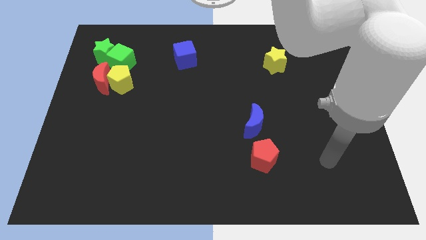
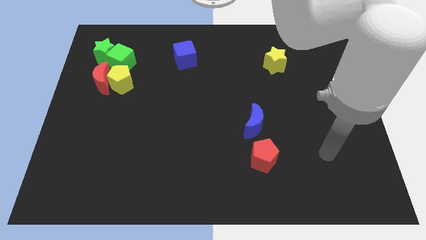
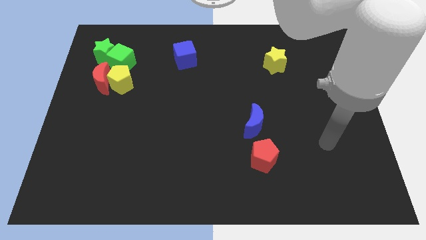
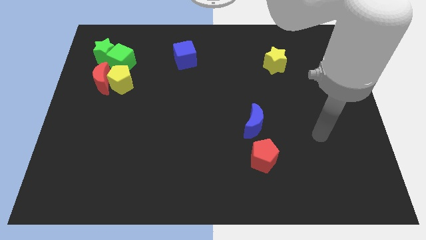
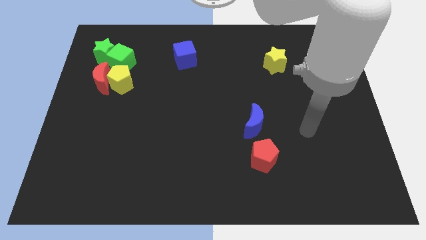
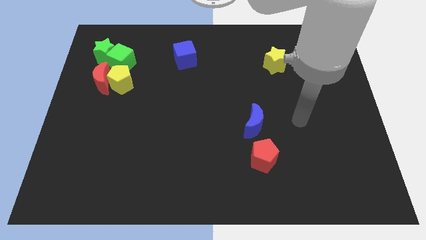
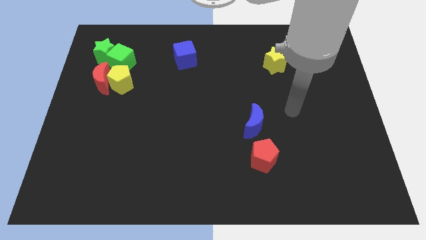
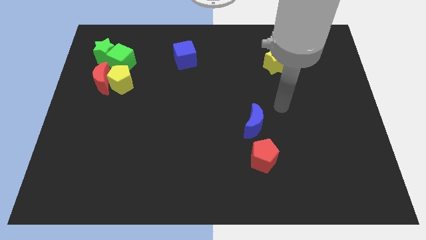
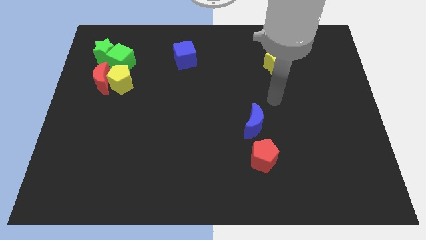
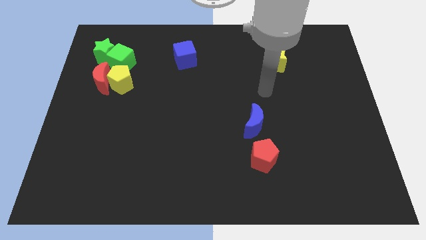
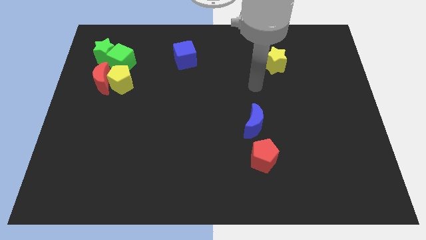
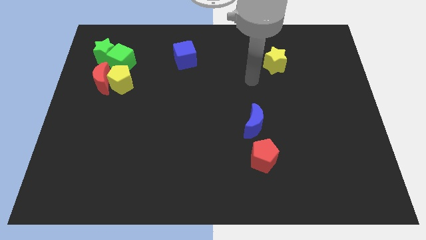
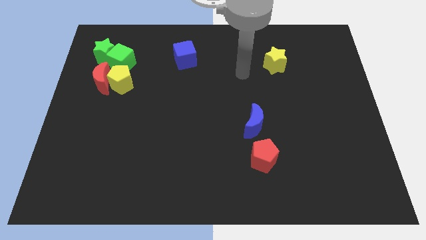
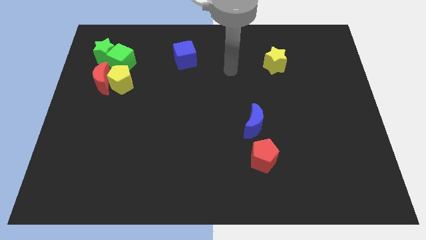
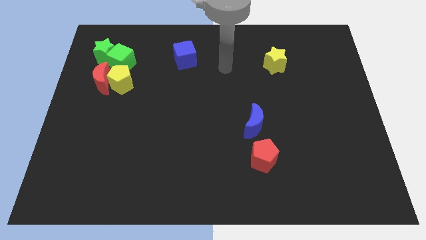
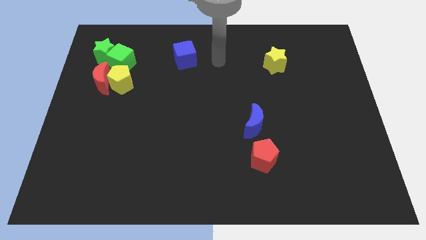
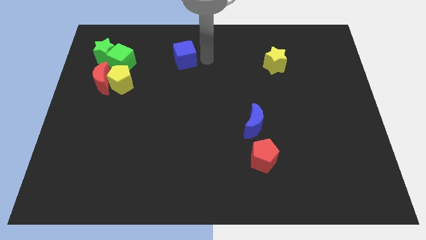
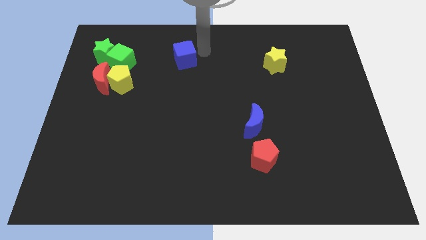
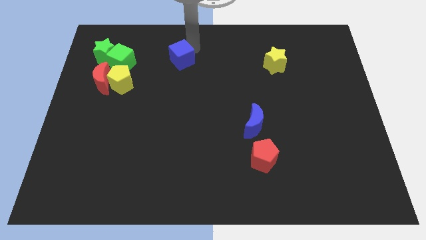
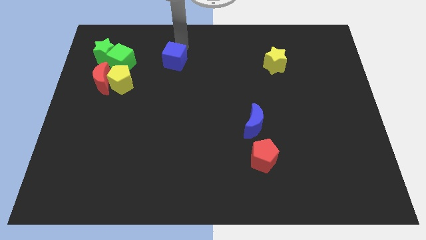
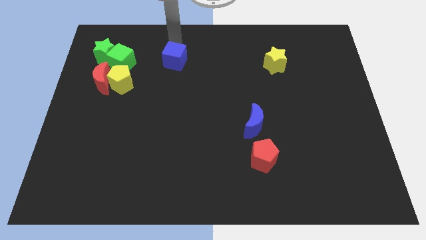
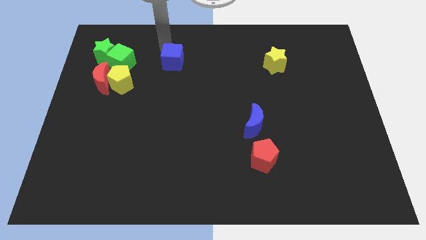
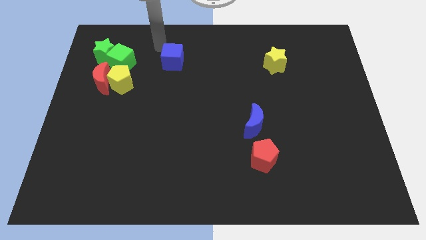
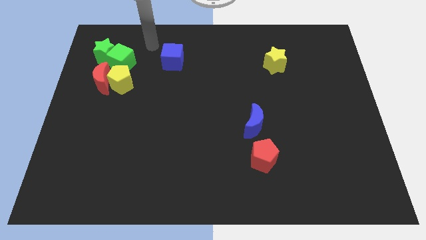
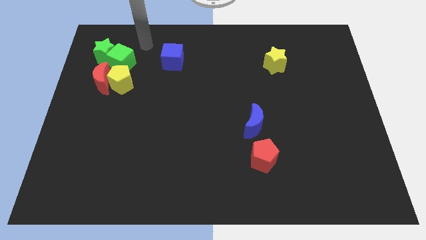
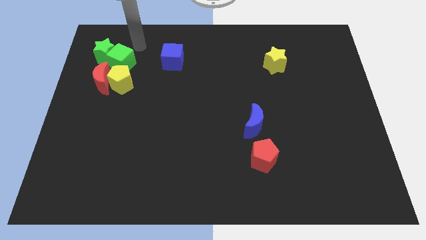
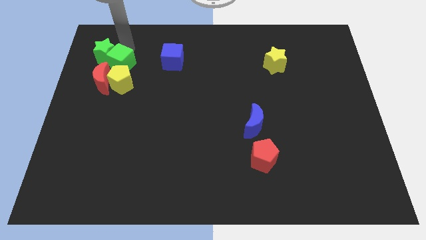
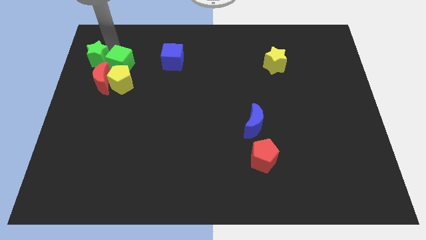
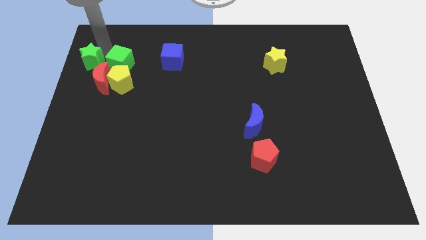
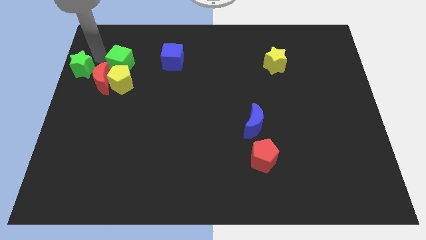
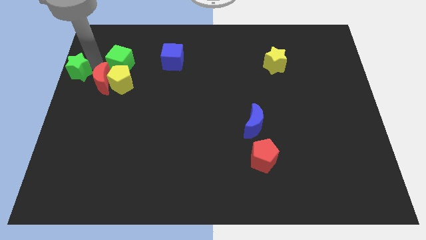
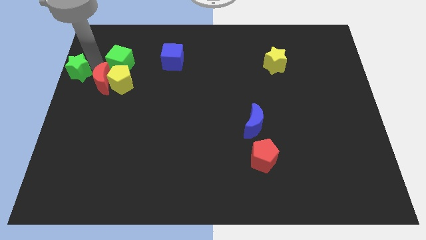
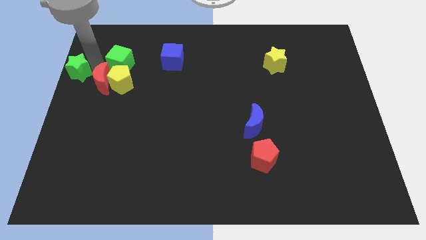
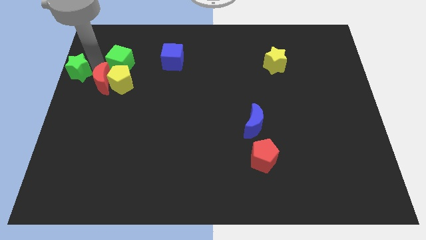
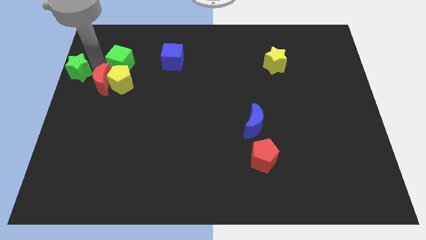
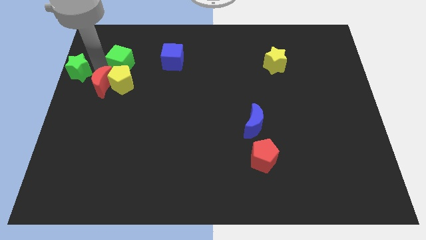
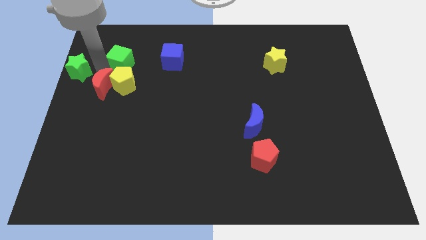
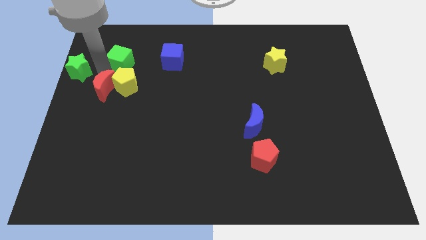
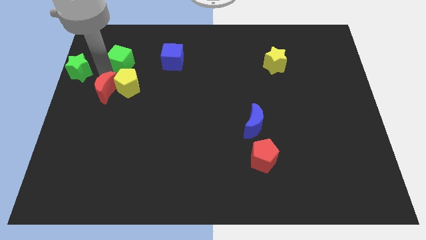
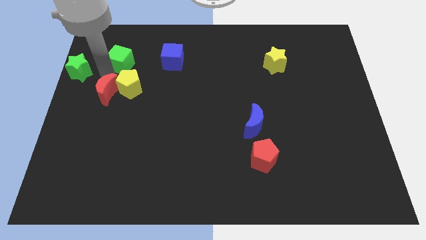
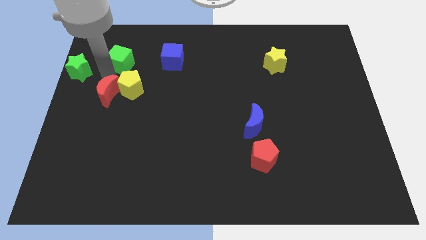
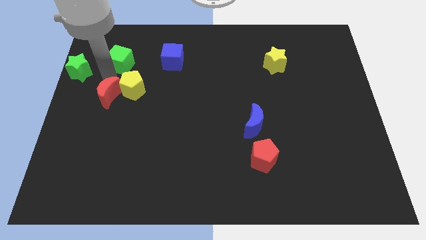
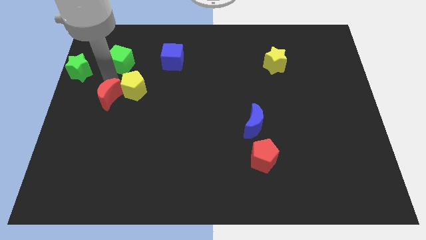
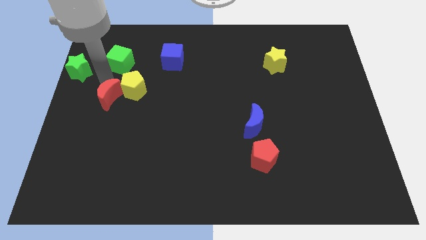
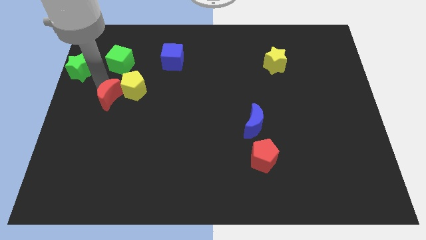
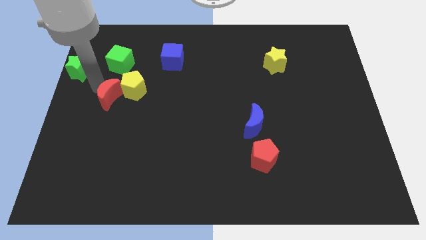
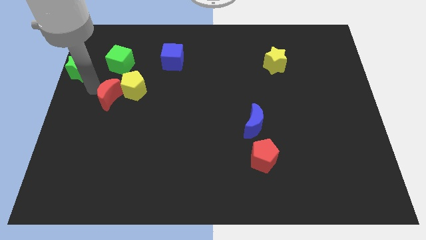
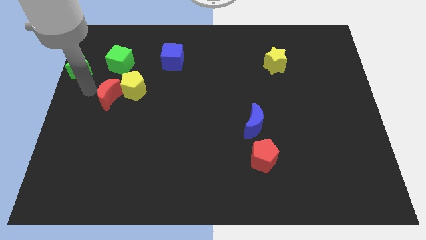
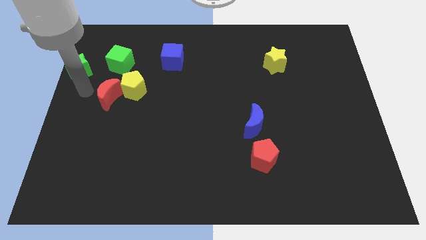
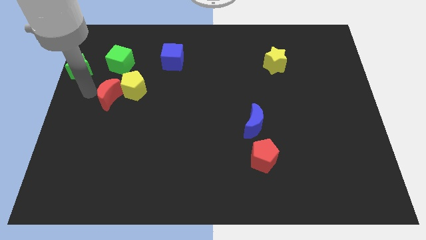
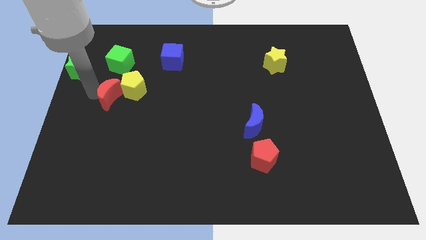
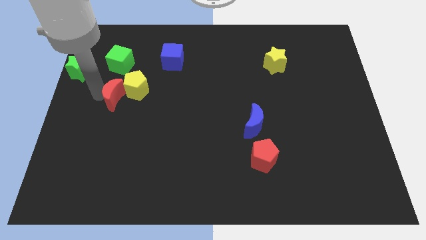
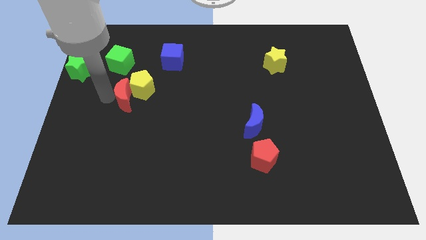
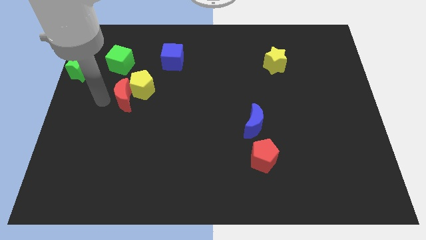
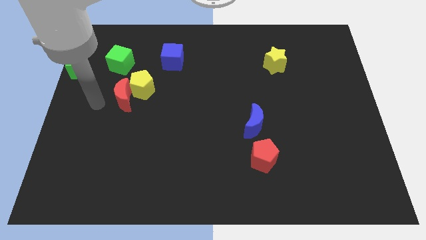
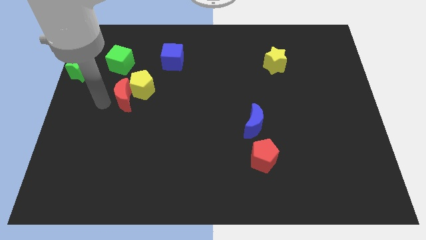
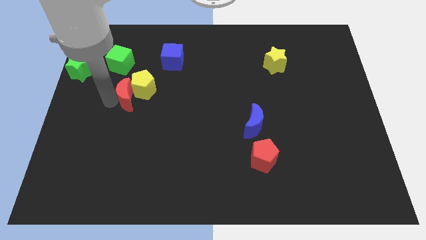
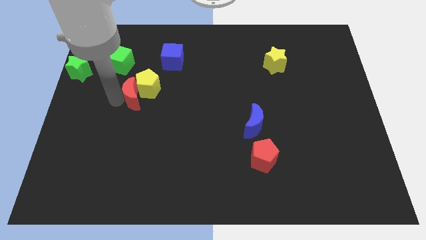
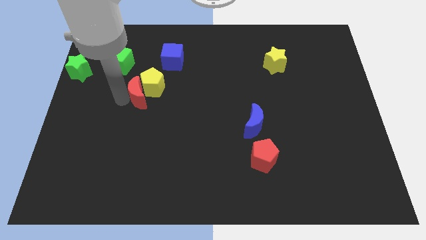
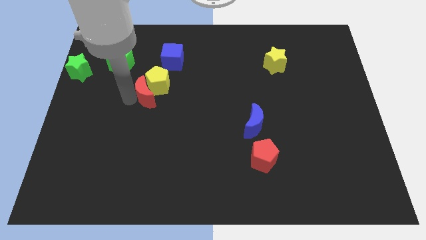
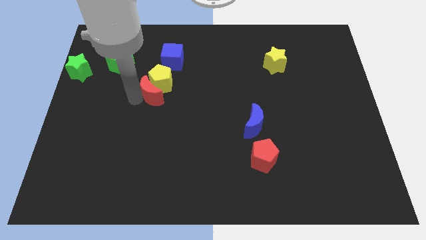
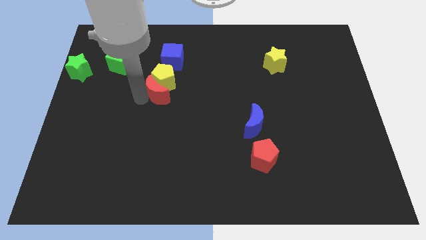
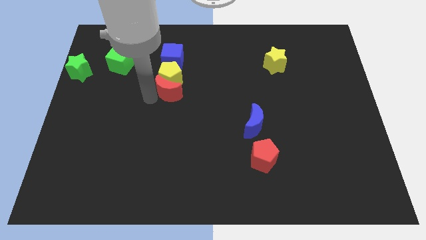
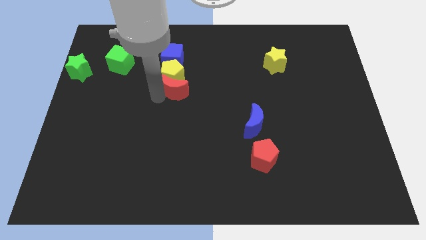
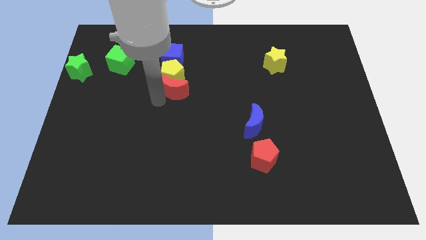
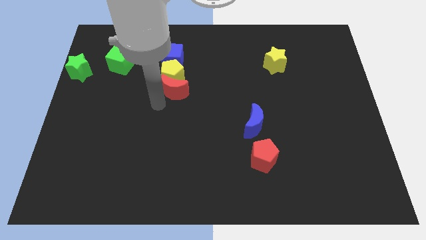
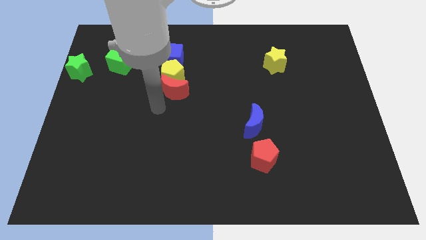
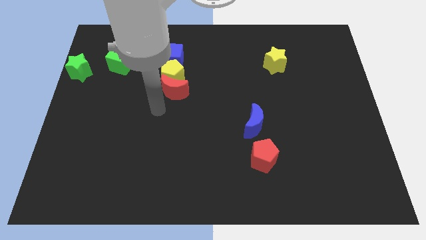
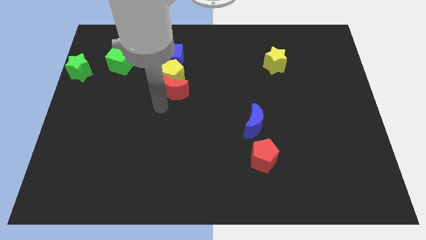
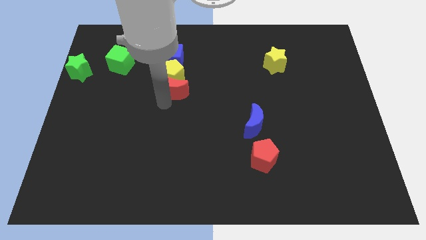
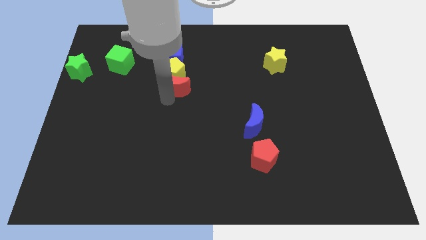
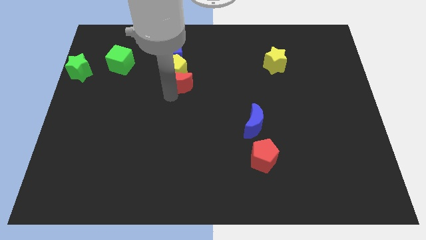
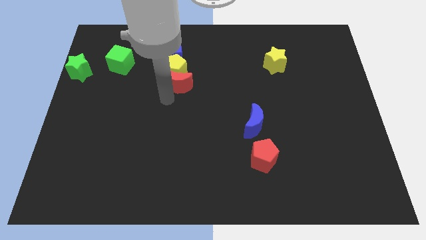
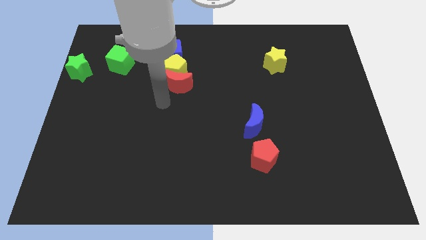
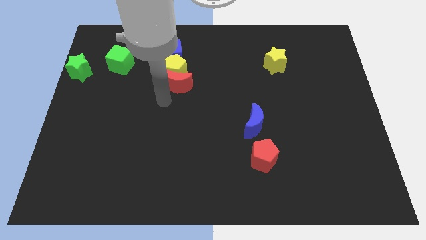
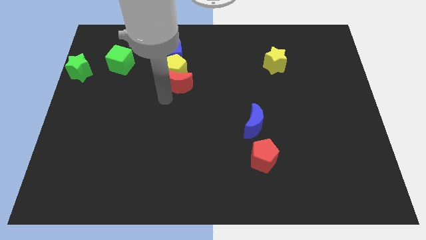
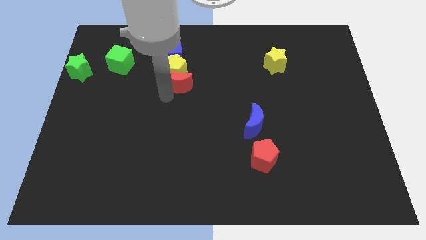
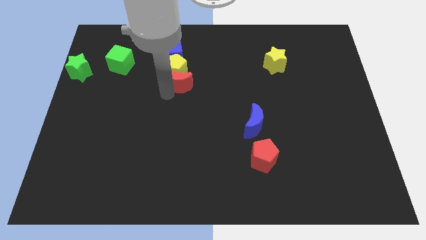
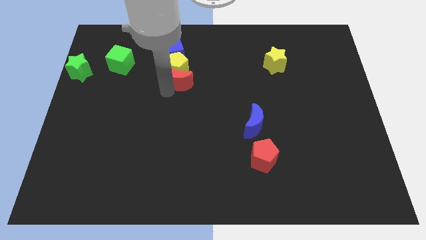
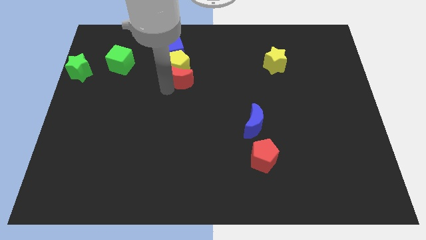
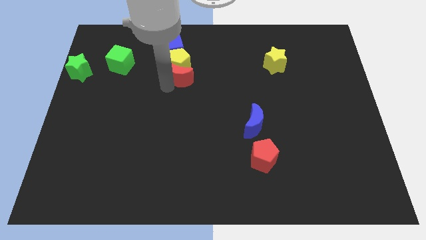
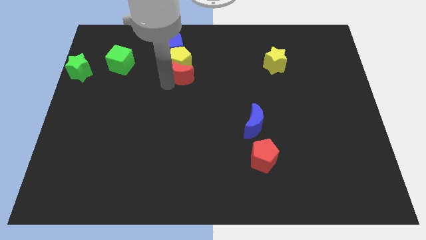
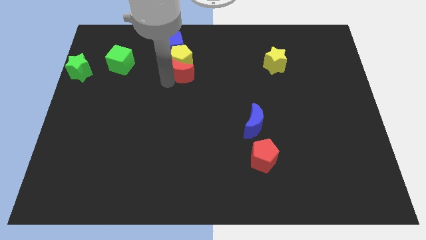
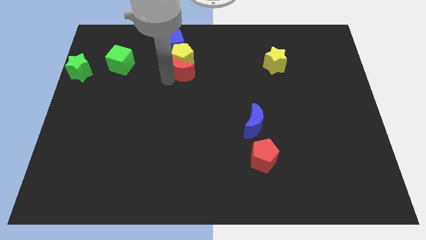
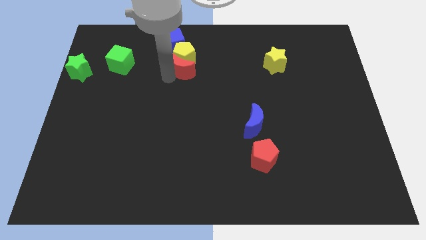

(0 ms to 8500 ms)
push the red moon diagonally down and to the right of the blue cube
